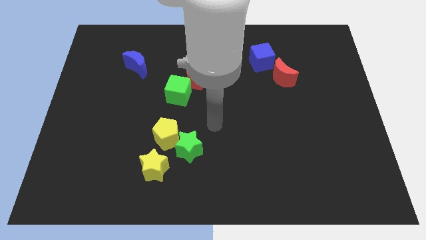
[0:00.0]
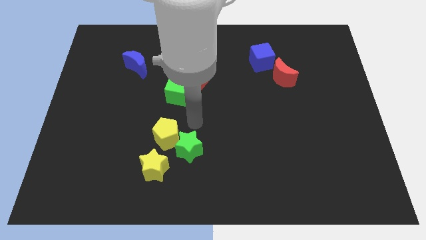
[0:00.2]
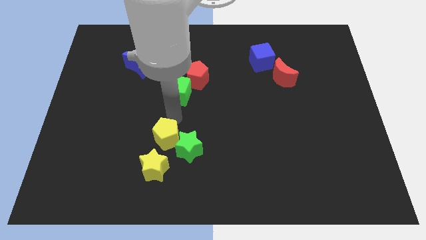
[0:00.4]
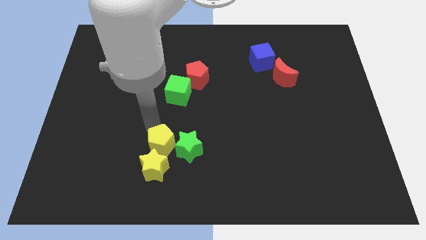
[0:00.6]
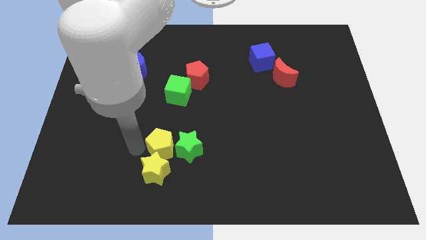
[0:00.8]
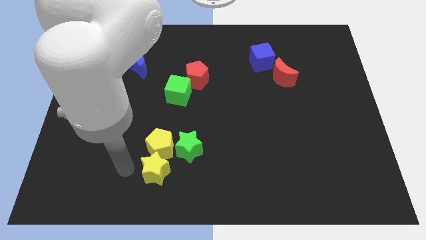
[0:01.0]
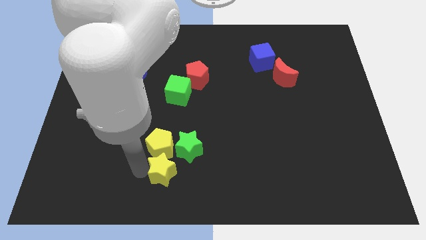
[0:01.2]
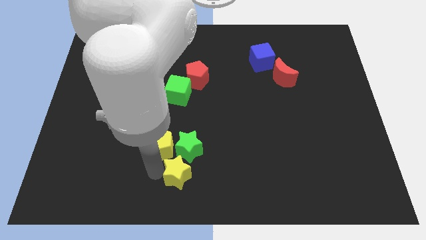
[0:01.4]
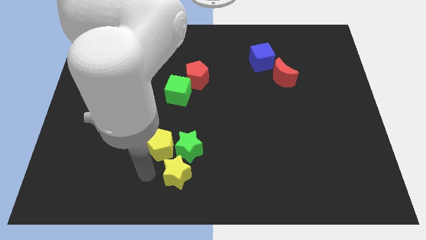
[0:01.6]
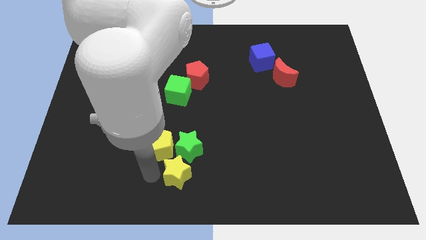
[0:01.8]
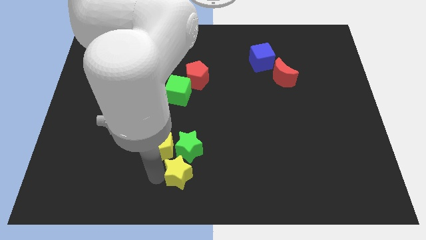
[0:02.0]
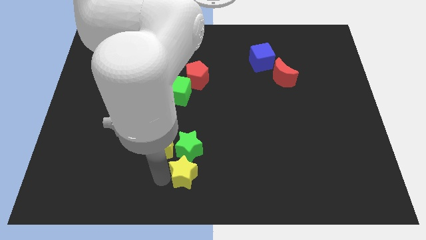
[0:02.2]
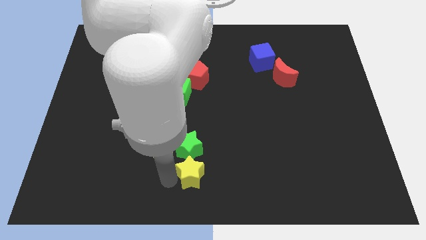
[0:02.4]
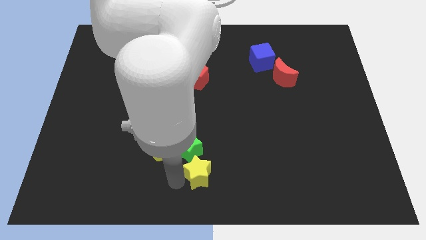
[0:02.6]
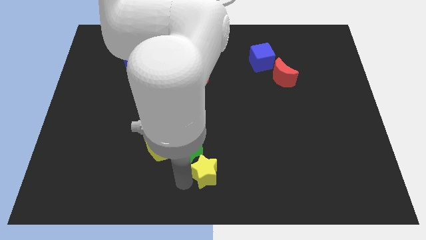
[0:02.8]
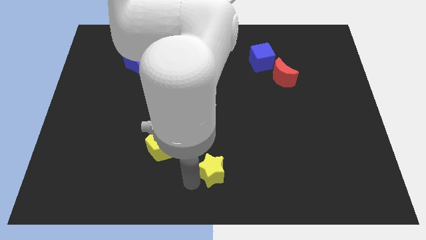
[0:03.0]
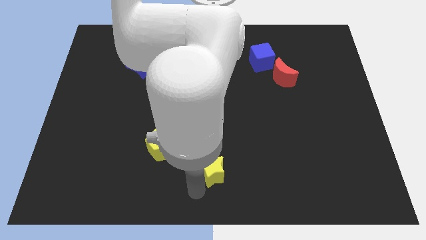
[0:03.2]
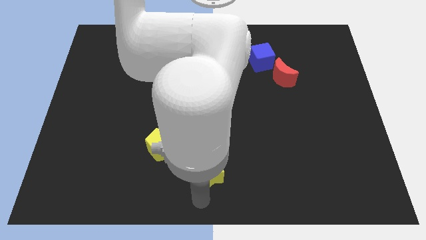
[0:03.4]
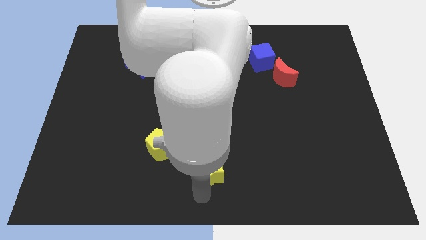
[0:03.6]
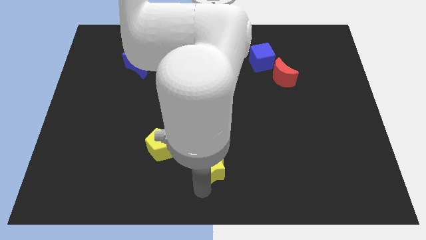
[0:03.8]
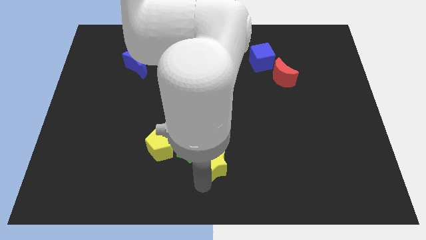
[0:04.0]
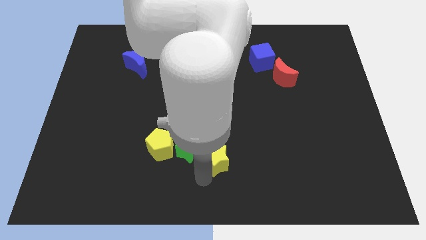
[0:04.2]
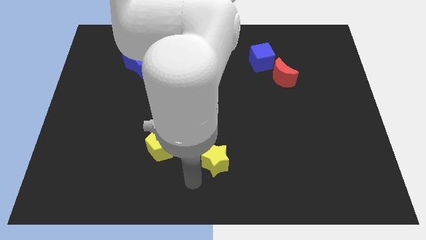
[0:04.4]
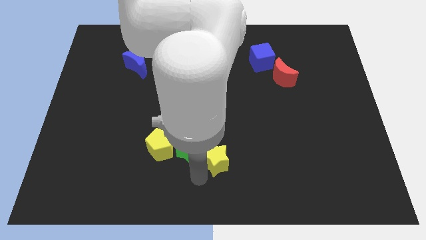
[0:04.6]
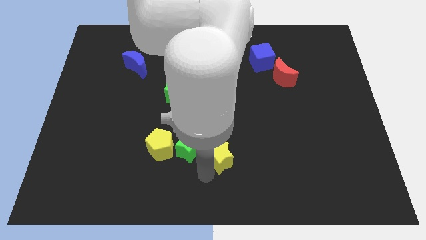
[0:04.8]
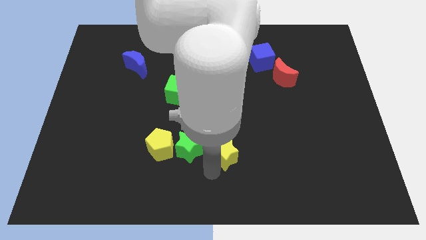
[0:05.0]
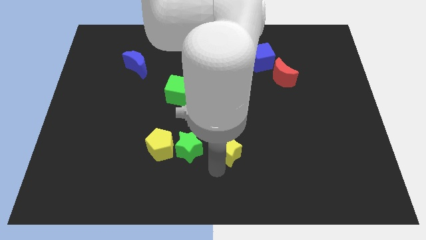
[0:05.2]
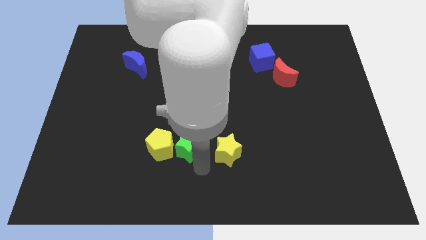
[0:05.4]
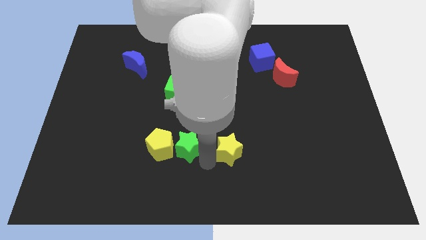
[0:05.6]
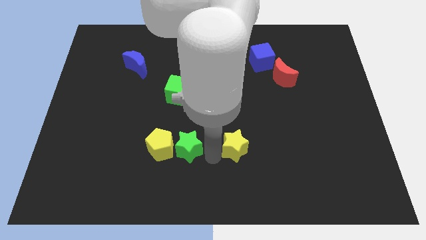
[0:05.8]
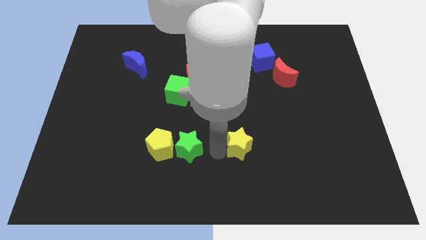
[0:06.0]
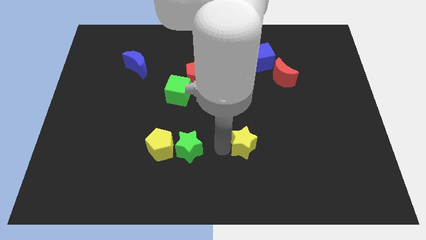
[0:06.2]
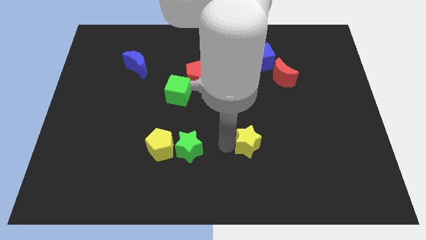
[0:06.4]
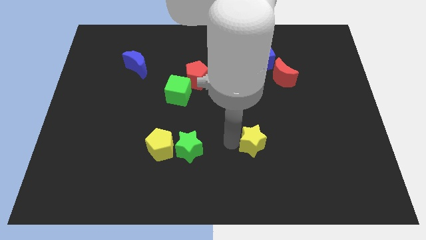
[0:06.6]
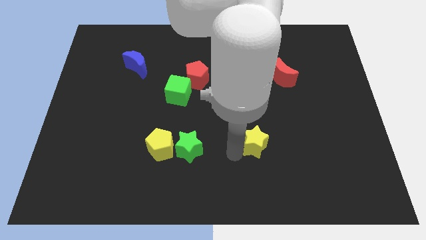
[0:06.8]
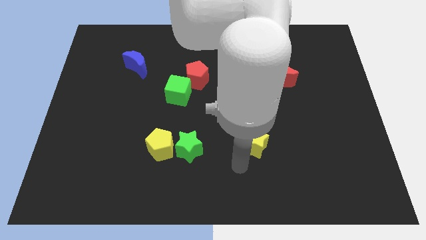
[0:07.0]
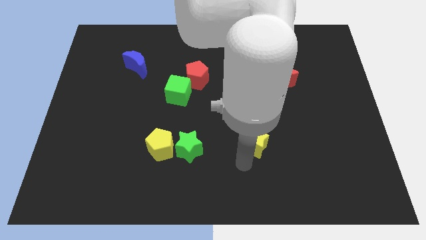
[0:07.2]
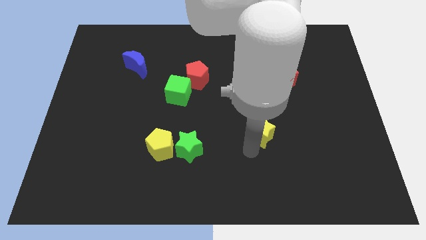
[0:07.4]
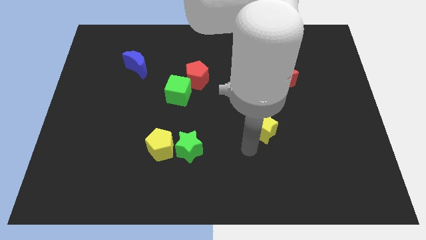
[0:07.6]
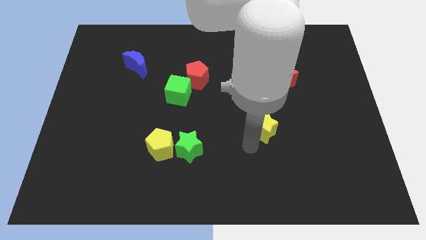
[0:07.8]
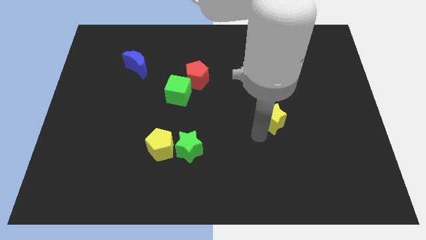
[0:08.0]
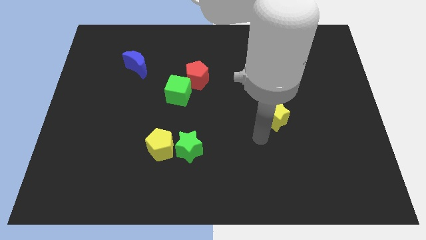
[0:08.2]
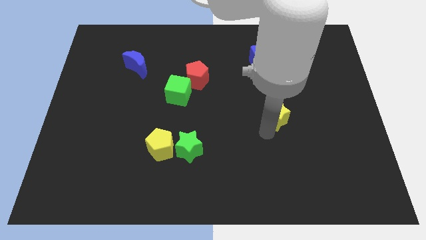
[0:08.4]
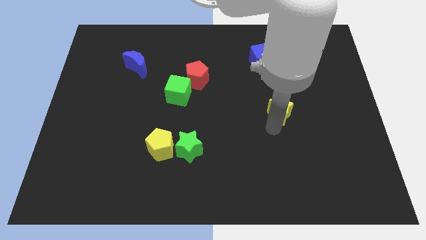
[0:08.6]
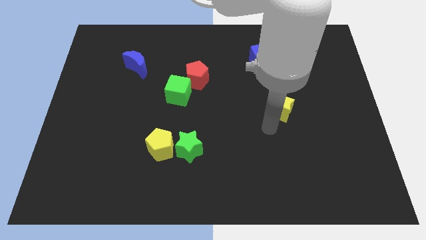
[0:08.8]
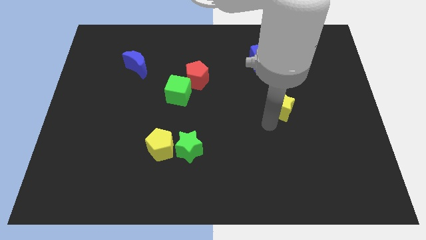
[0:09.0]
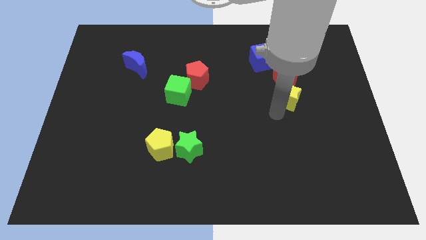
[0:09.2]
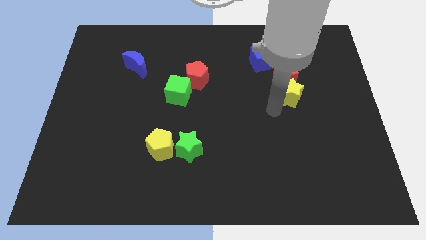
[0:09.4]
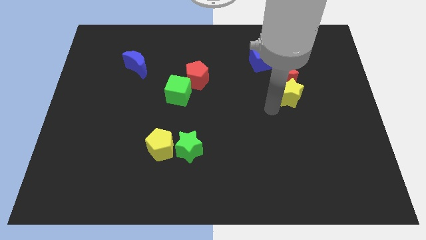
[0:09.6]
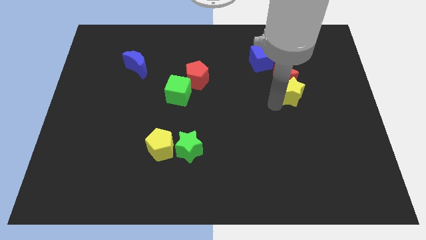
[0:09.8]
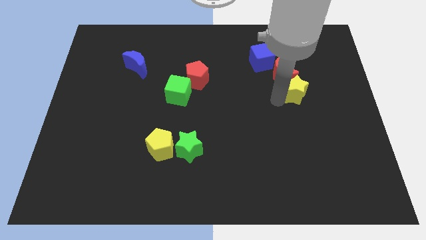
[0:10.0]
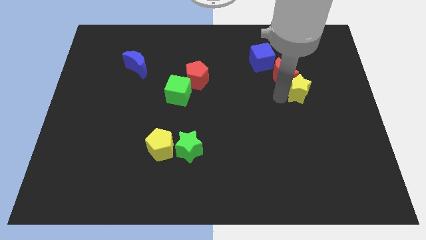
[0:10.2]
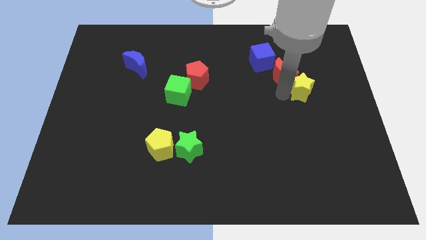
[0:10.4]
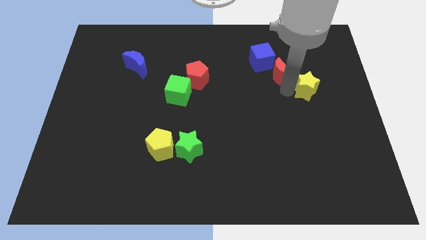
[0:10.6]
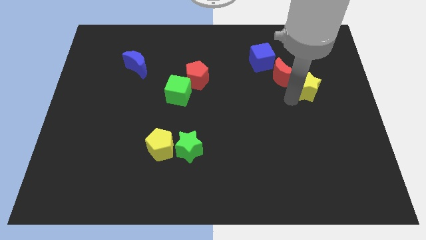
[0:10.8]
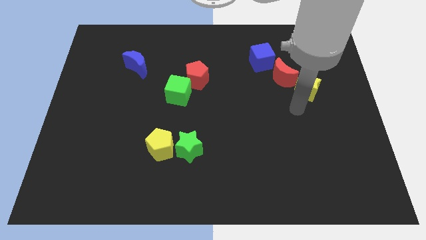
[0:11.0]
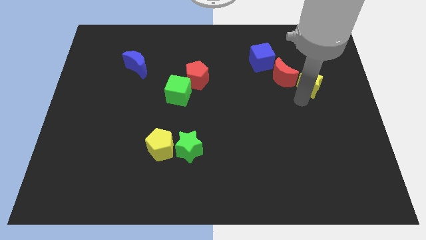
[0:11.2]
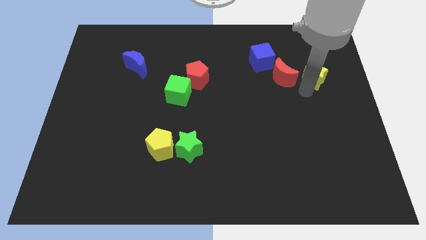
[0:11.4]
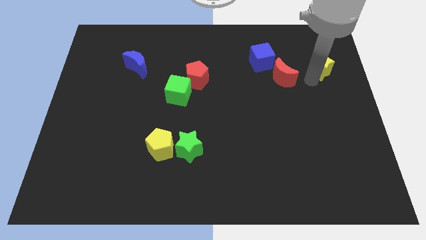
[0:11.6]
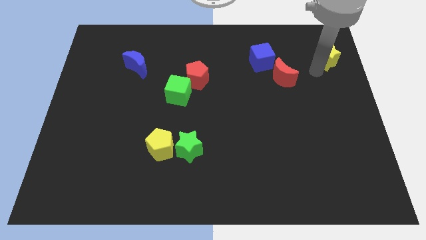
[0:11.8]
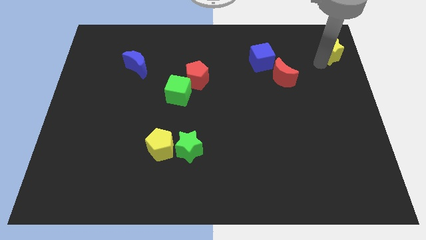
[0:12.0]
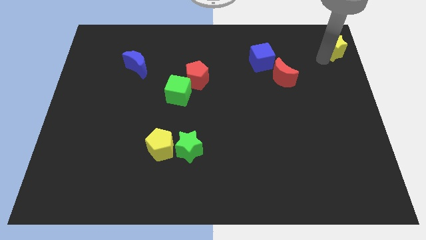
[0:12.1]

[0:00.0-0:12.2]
put the yellow star to the top right
